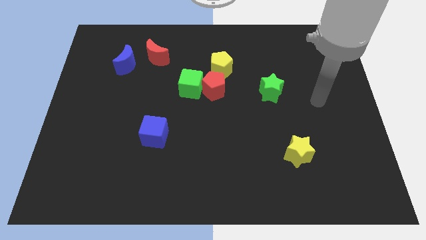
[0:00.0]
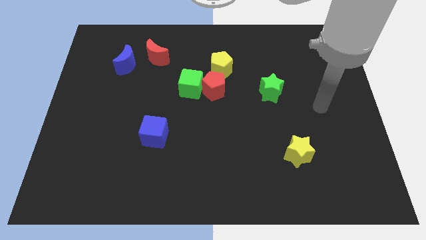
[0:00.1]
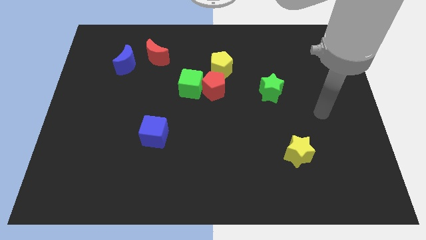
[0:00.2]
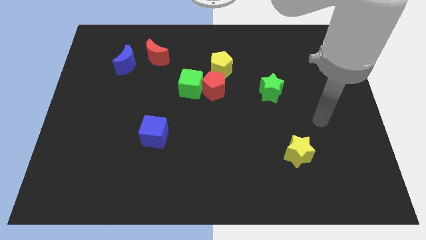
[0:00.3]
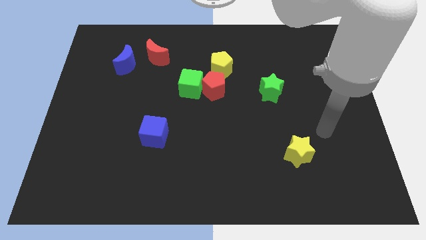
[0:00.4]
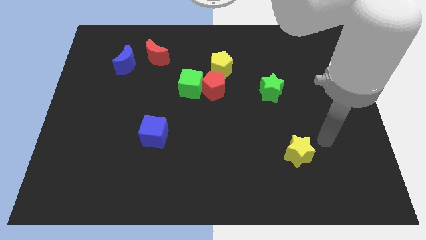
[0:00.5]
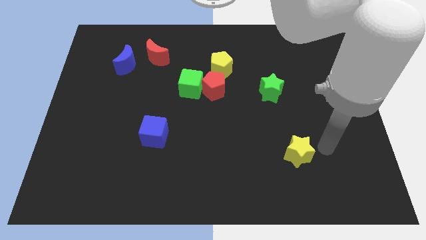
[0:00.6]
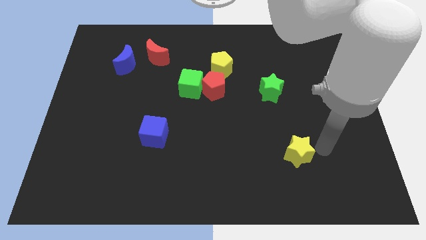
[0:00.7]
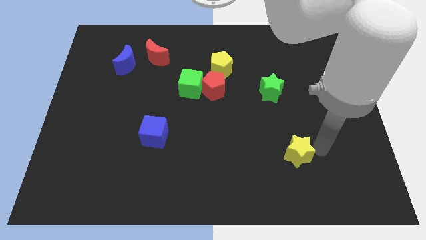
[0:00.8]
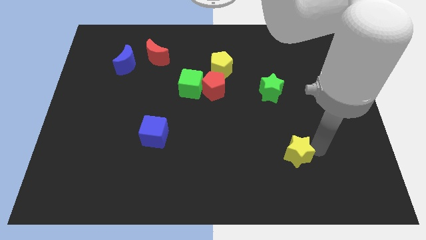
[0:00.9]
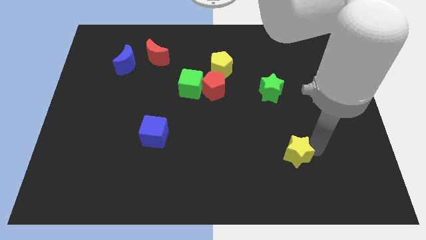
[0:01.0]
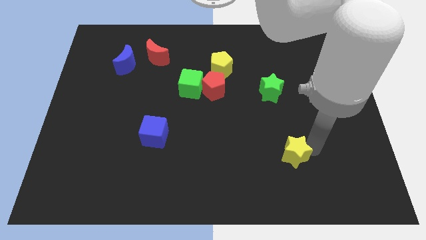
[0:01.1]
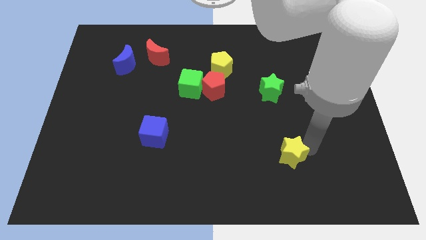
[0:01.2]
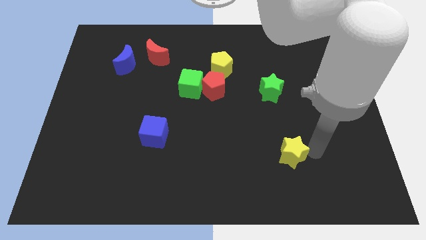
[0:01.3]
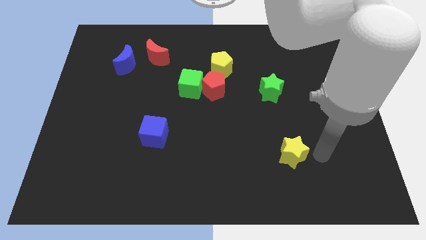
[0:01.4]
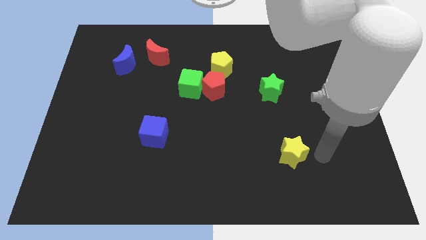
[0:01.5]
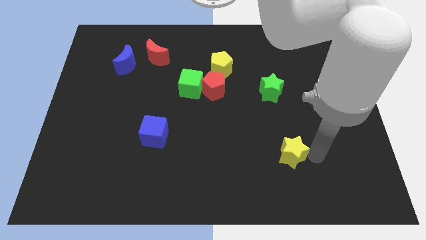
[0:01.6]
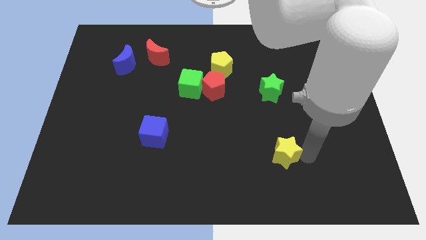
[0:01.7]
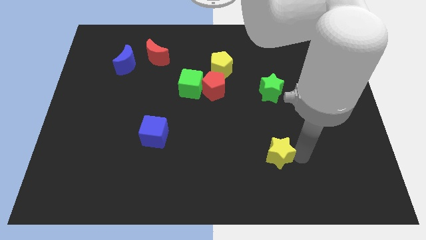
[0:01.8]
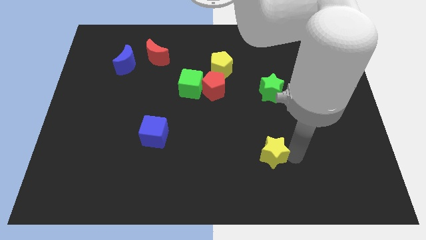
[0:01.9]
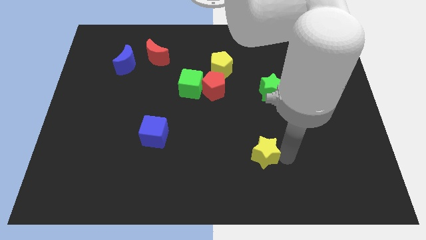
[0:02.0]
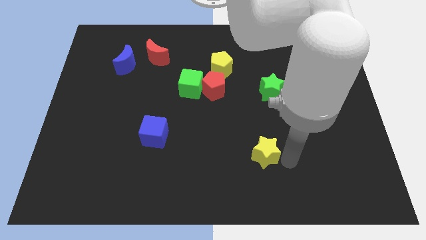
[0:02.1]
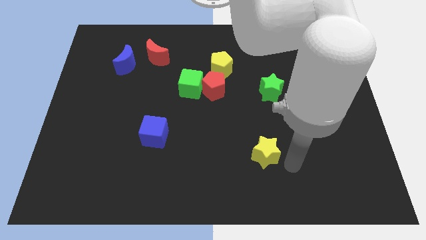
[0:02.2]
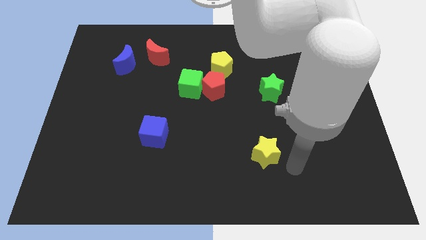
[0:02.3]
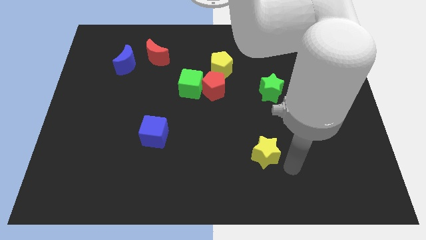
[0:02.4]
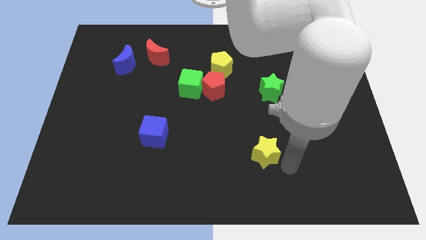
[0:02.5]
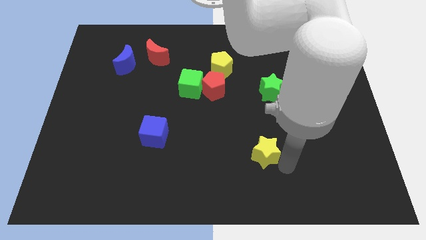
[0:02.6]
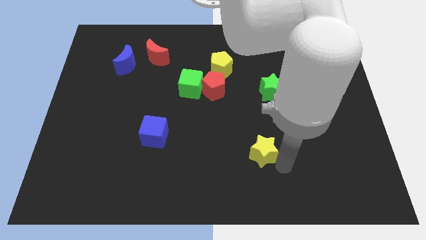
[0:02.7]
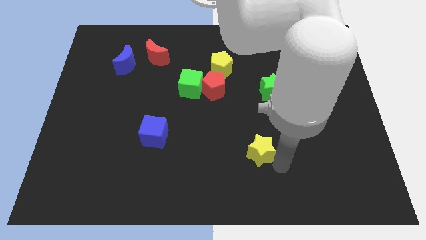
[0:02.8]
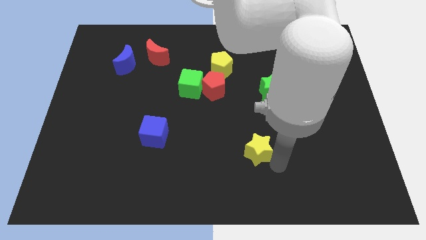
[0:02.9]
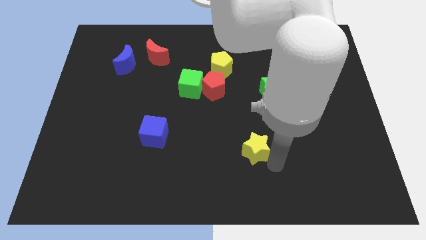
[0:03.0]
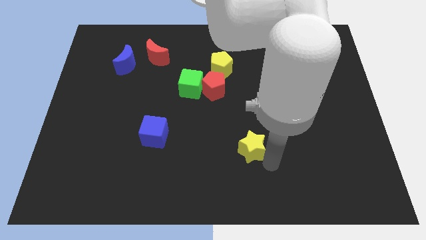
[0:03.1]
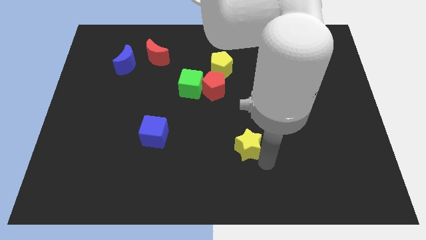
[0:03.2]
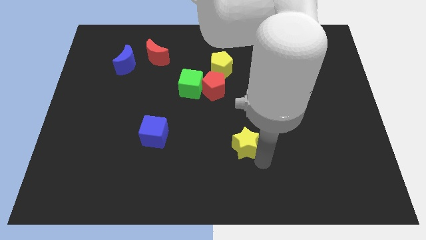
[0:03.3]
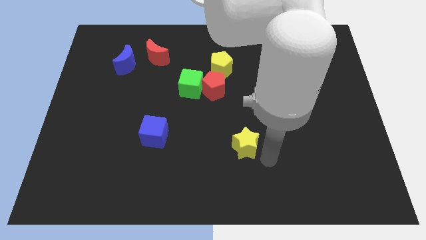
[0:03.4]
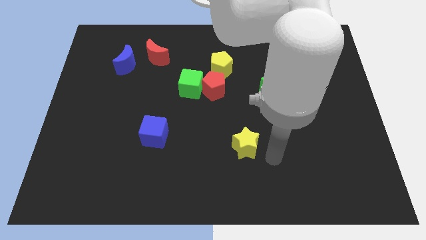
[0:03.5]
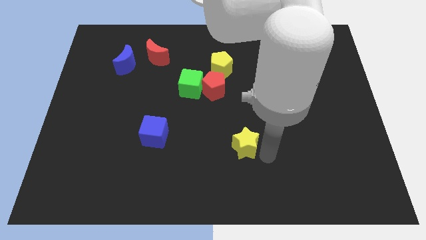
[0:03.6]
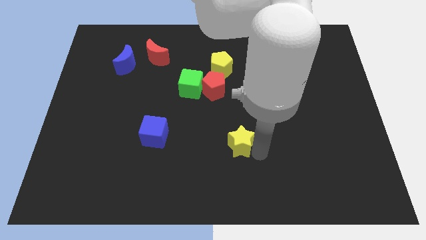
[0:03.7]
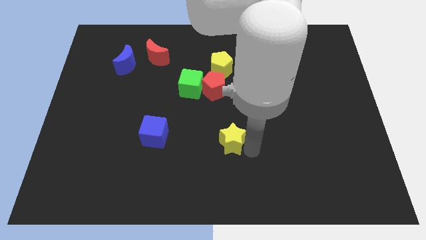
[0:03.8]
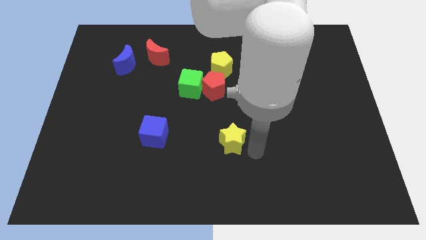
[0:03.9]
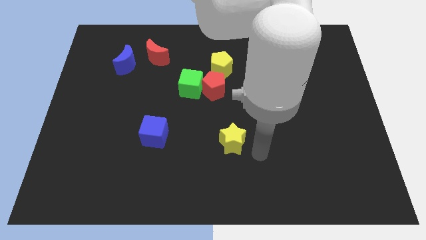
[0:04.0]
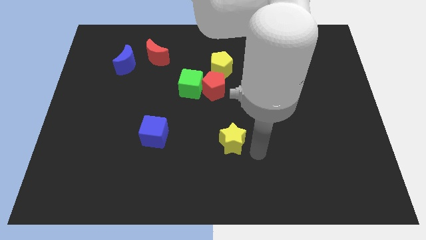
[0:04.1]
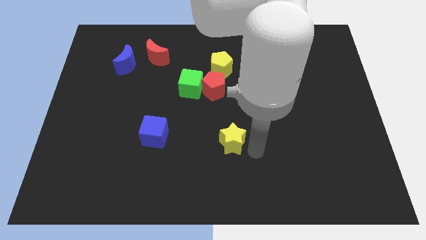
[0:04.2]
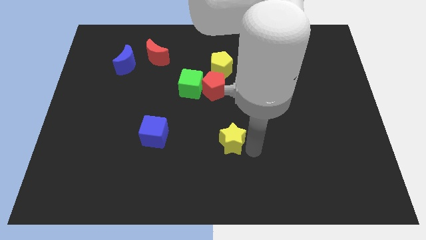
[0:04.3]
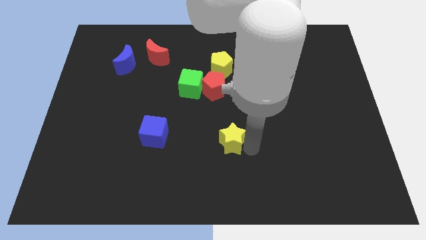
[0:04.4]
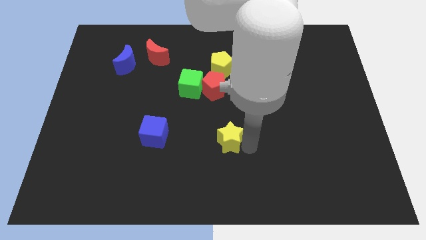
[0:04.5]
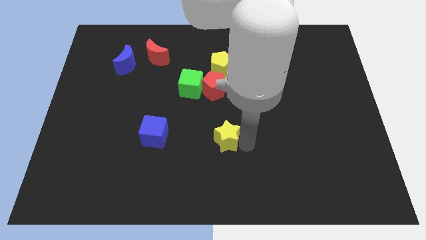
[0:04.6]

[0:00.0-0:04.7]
put the yellow star to the right of the blue cube

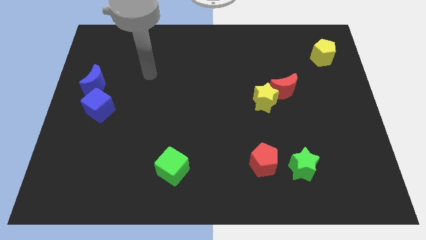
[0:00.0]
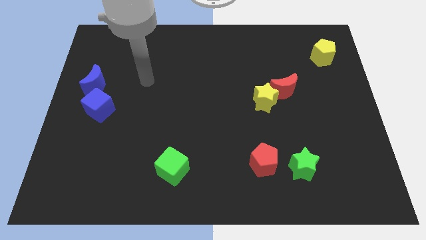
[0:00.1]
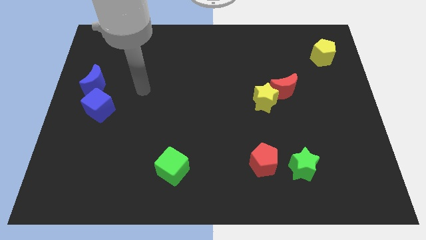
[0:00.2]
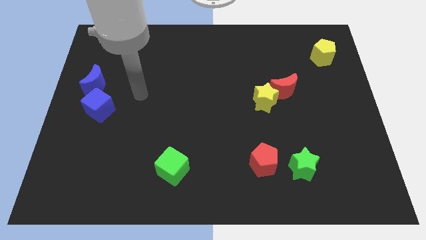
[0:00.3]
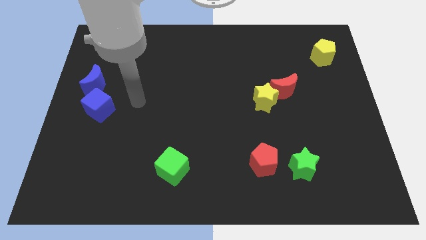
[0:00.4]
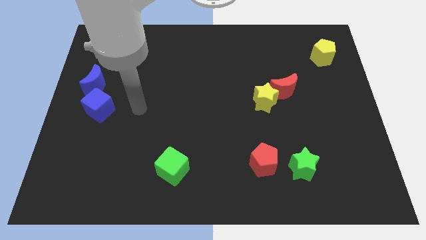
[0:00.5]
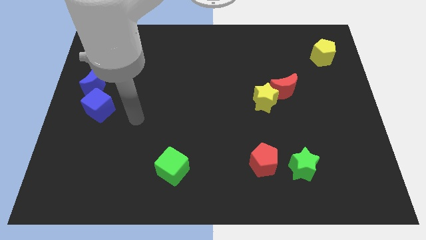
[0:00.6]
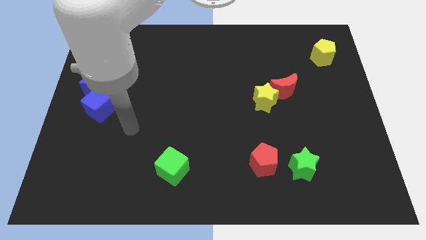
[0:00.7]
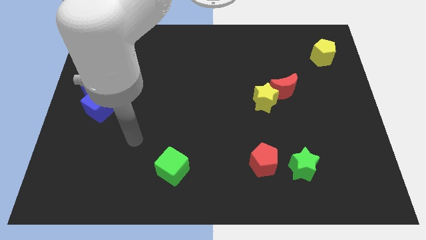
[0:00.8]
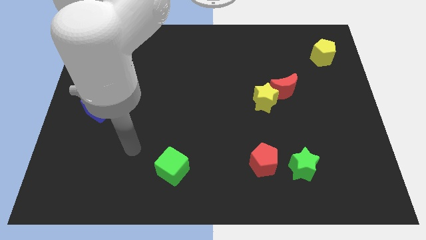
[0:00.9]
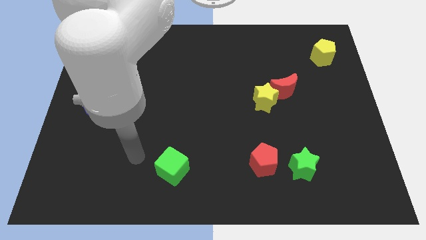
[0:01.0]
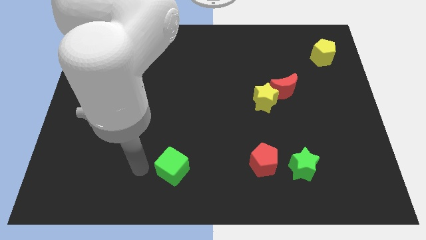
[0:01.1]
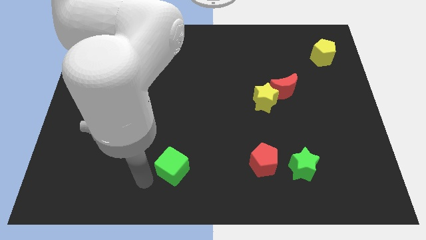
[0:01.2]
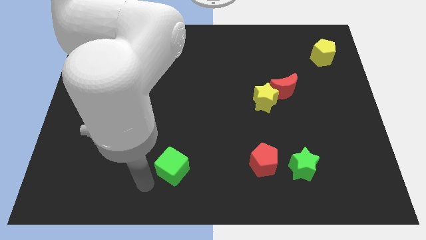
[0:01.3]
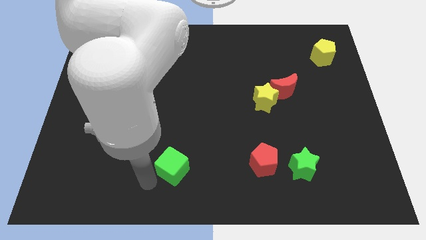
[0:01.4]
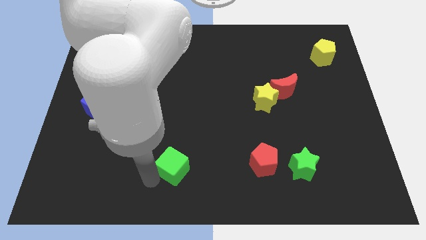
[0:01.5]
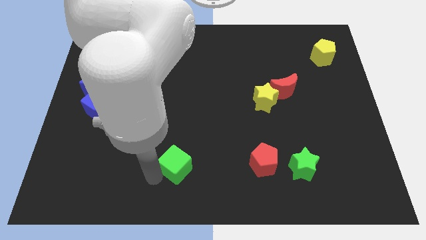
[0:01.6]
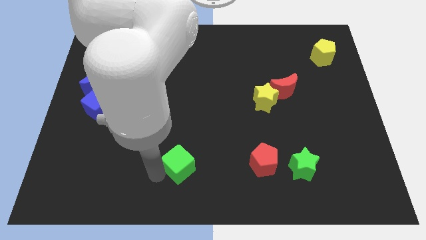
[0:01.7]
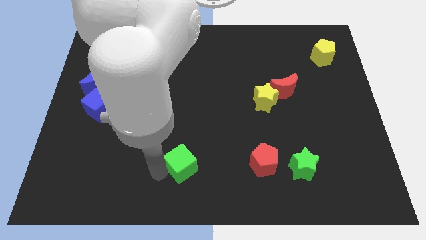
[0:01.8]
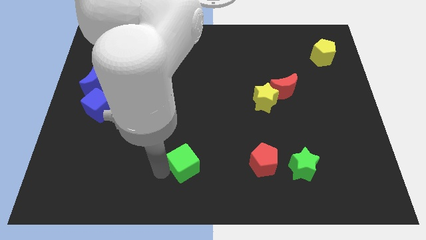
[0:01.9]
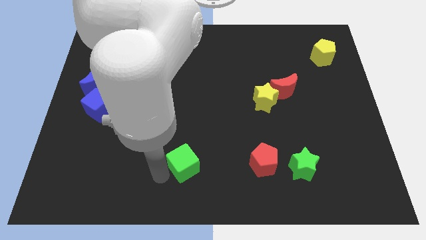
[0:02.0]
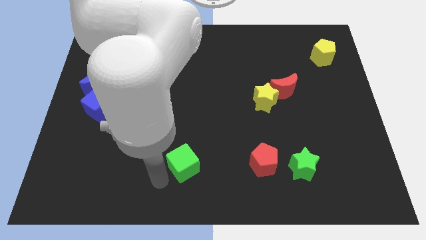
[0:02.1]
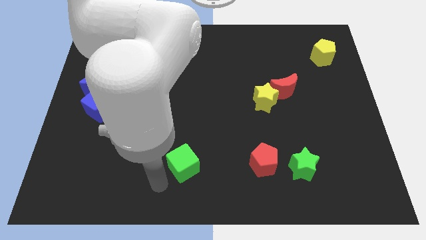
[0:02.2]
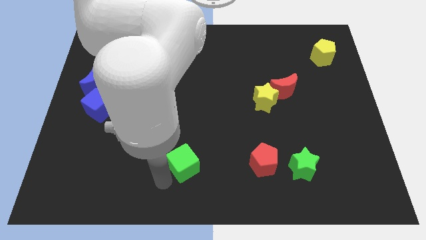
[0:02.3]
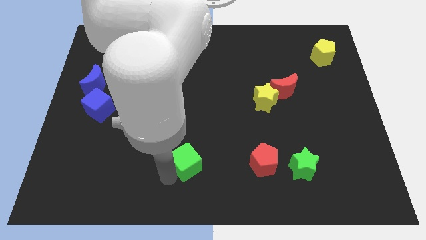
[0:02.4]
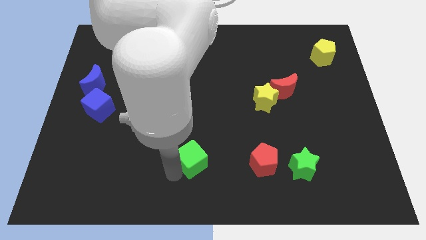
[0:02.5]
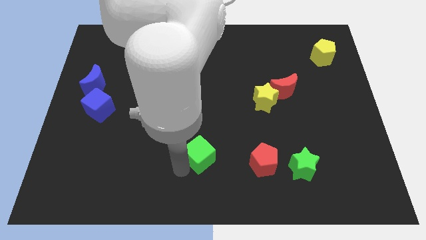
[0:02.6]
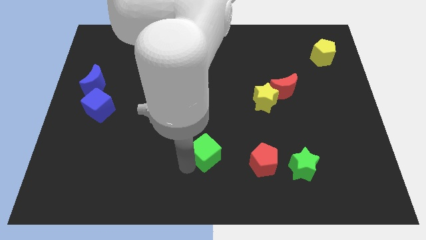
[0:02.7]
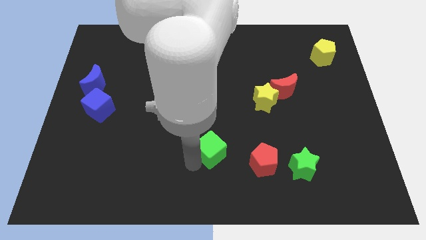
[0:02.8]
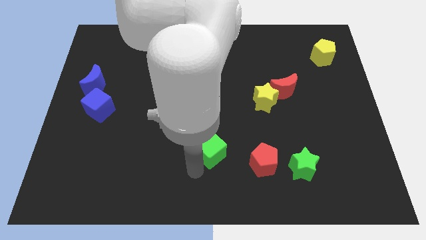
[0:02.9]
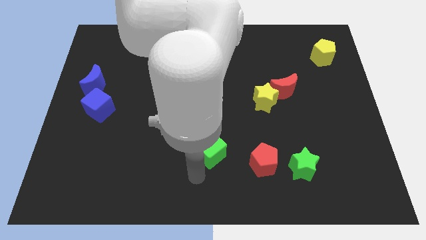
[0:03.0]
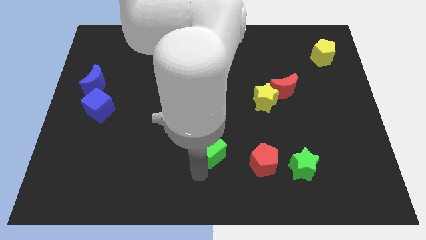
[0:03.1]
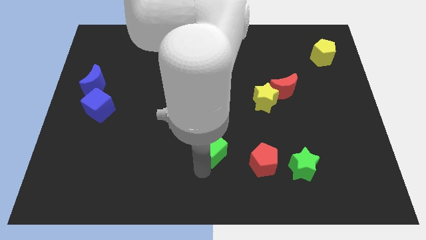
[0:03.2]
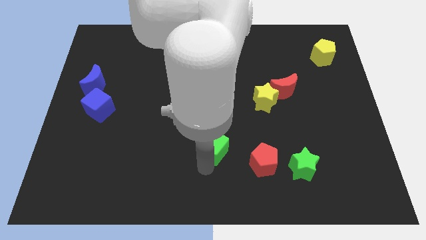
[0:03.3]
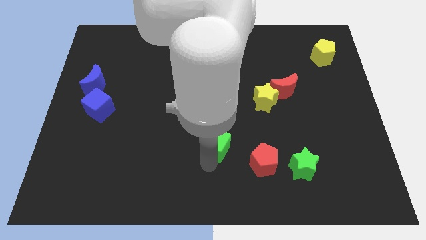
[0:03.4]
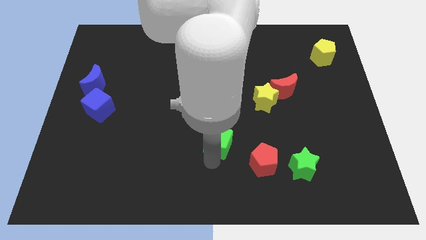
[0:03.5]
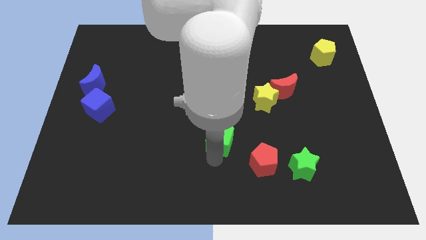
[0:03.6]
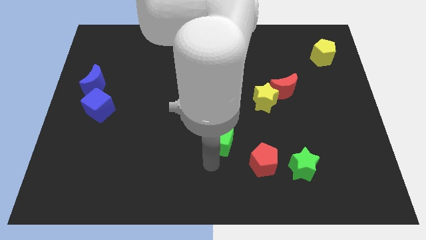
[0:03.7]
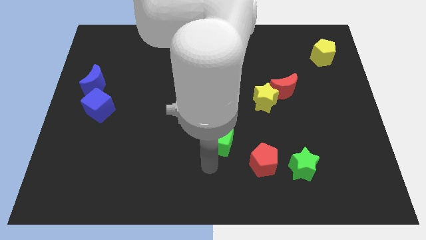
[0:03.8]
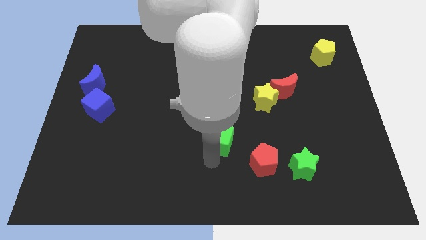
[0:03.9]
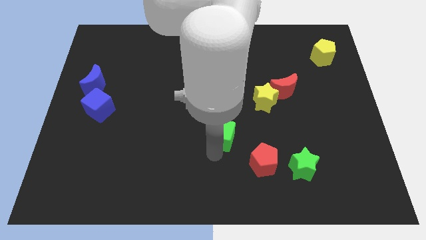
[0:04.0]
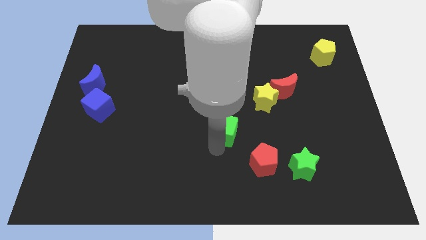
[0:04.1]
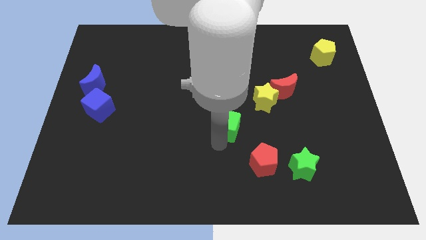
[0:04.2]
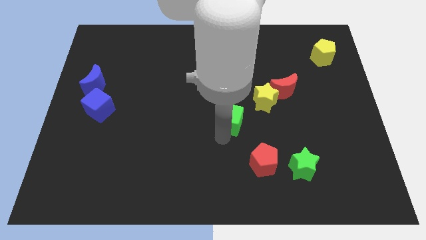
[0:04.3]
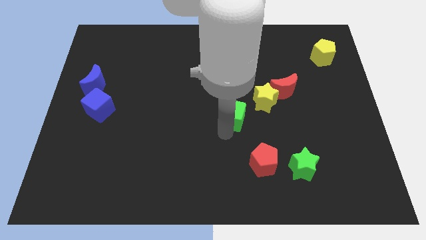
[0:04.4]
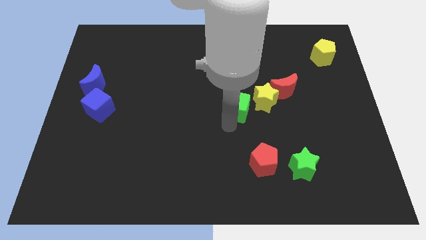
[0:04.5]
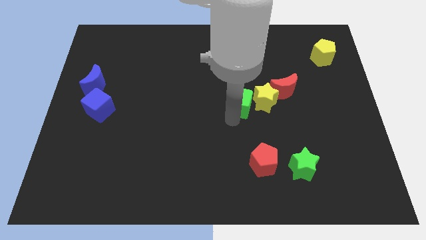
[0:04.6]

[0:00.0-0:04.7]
move the green cube just left of the red moon
